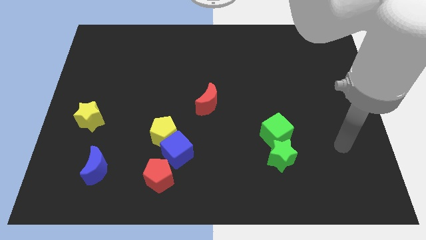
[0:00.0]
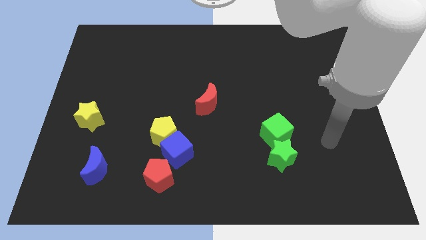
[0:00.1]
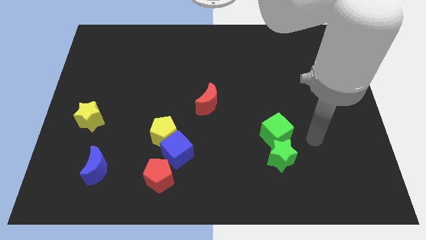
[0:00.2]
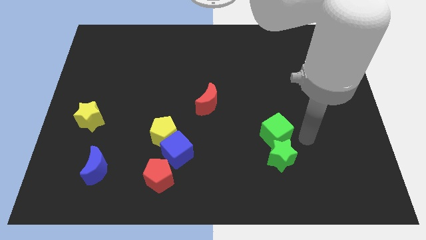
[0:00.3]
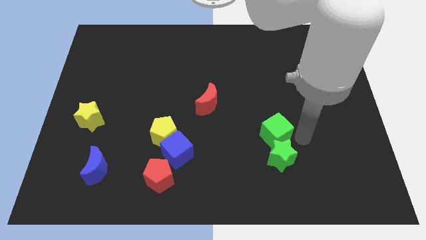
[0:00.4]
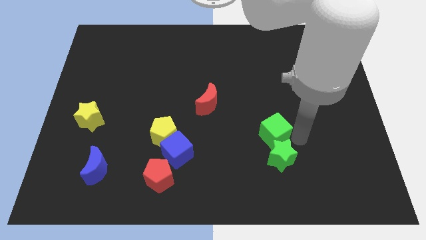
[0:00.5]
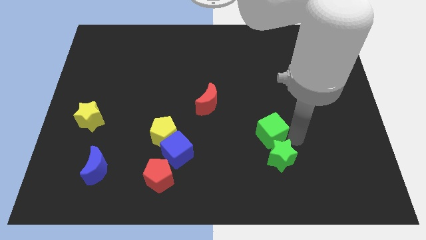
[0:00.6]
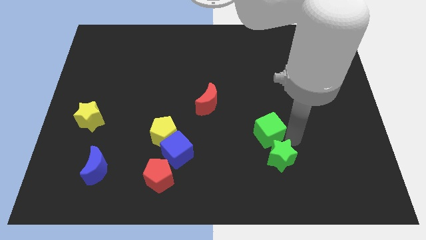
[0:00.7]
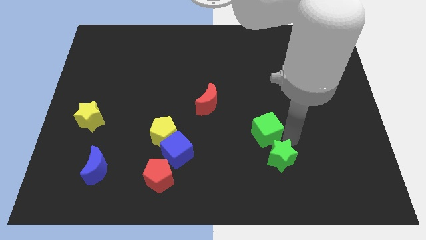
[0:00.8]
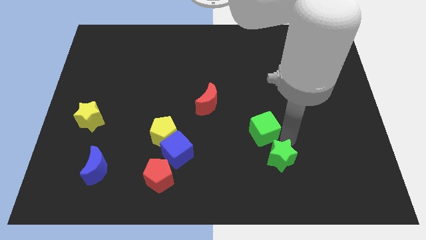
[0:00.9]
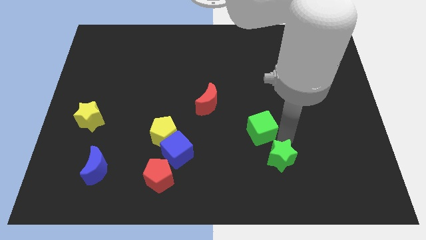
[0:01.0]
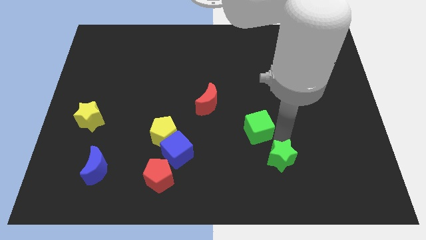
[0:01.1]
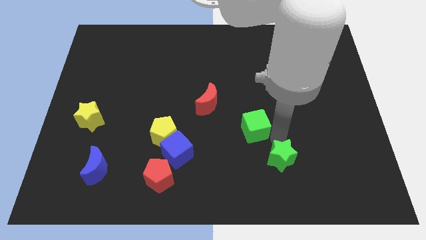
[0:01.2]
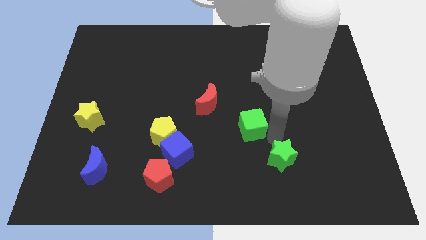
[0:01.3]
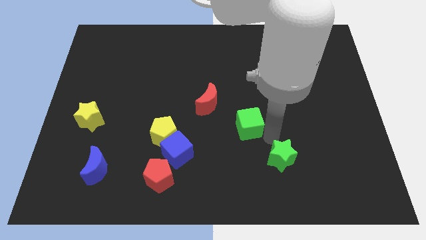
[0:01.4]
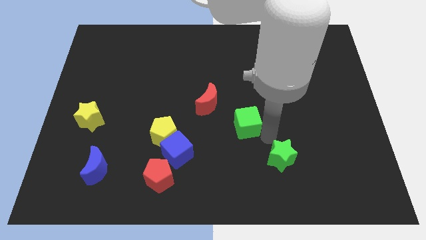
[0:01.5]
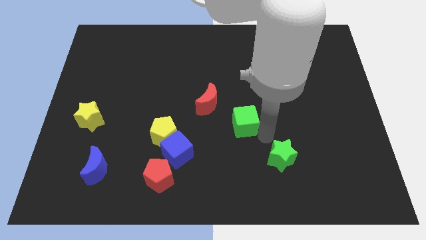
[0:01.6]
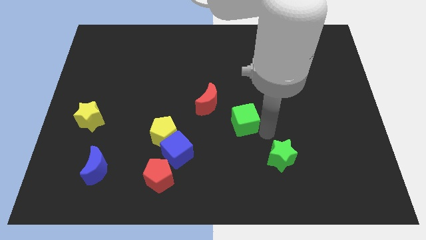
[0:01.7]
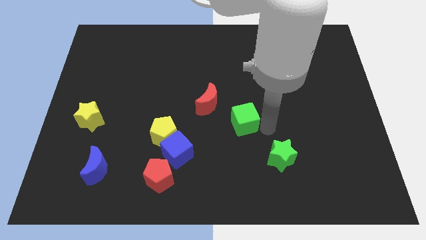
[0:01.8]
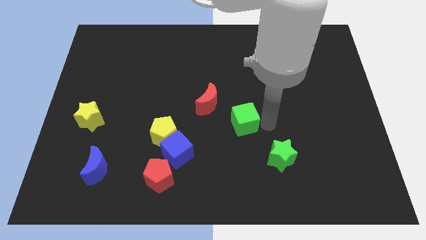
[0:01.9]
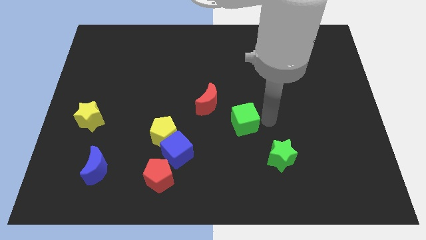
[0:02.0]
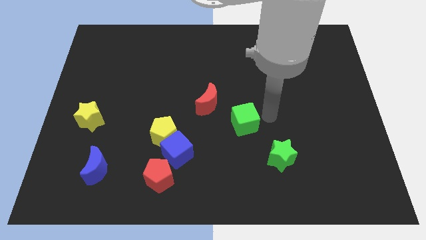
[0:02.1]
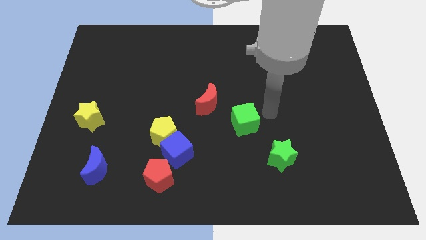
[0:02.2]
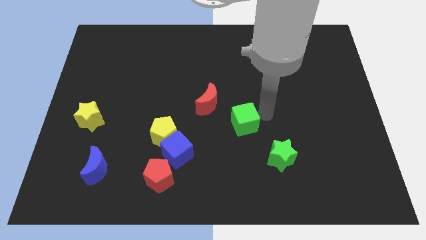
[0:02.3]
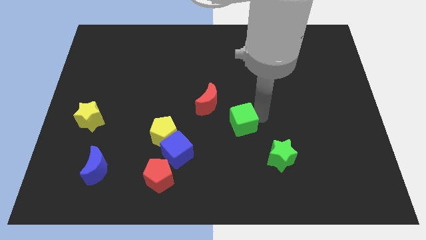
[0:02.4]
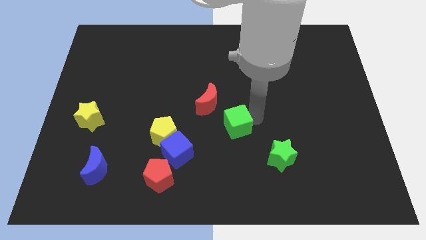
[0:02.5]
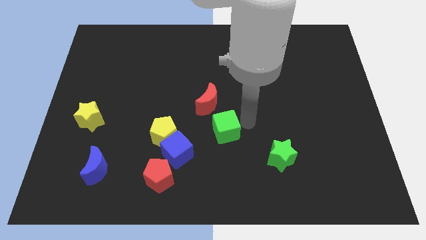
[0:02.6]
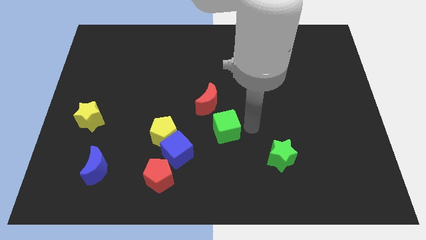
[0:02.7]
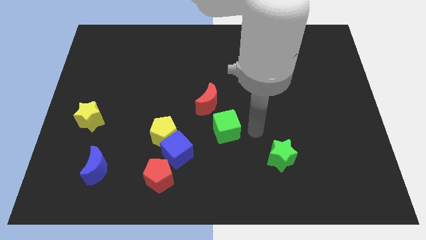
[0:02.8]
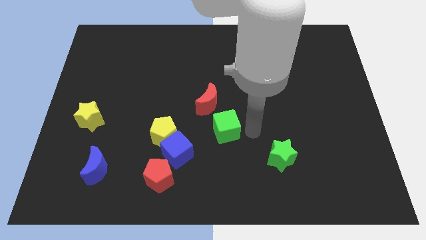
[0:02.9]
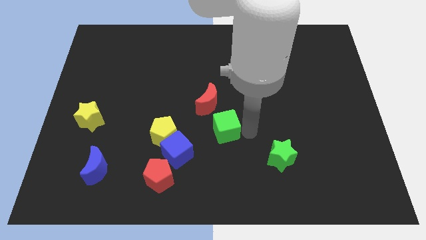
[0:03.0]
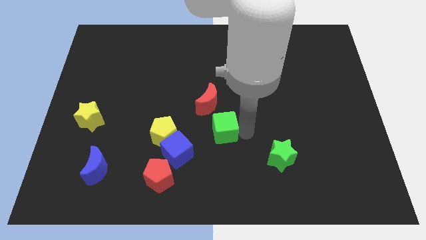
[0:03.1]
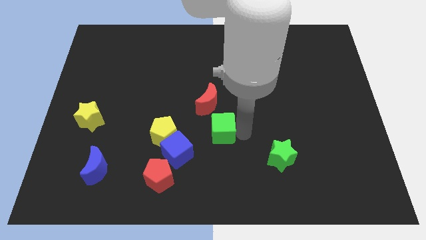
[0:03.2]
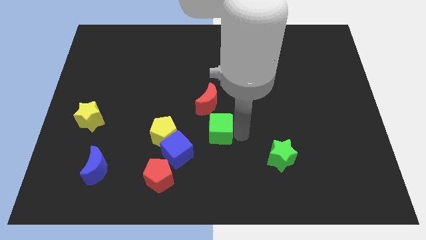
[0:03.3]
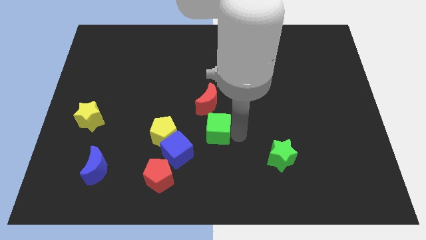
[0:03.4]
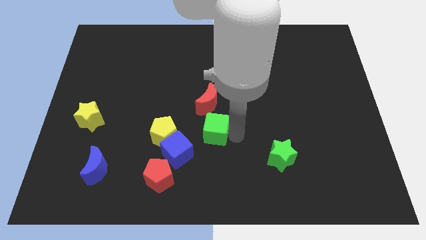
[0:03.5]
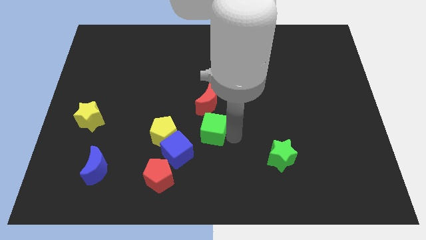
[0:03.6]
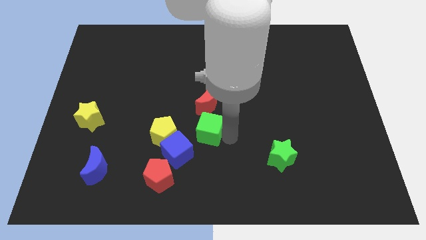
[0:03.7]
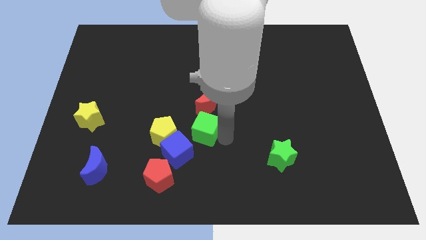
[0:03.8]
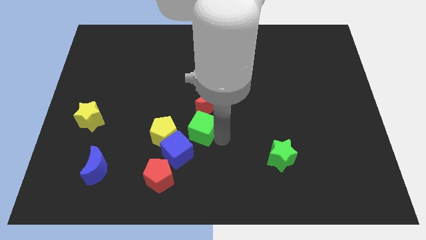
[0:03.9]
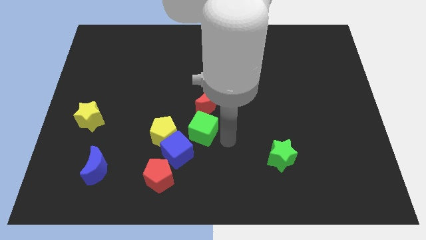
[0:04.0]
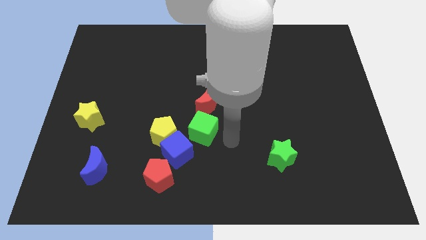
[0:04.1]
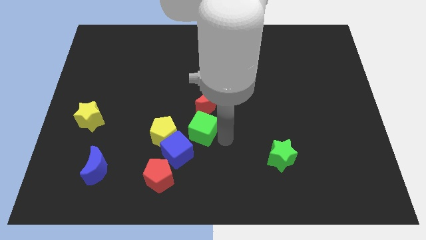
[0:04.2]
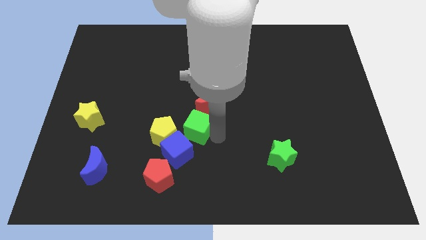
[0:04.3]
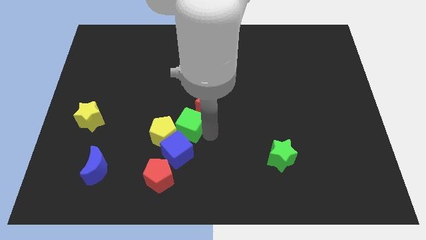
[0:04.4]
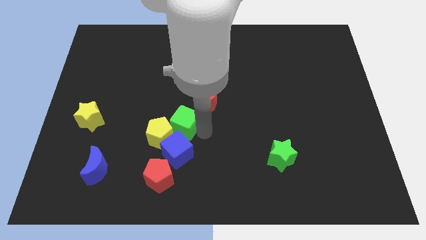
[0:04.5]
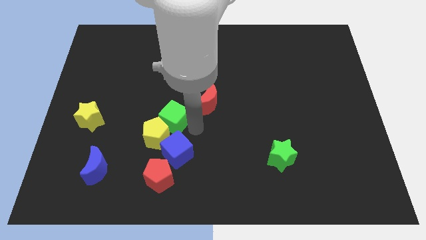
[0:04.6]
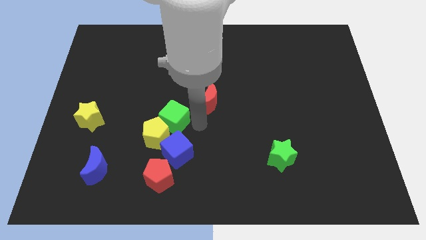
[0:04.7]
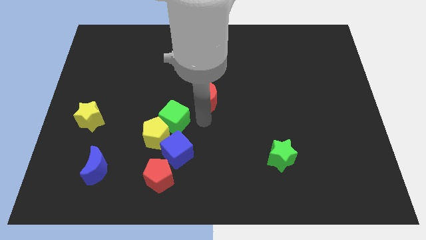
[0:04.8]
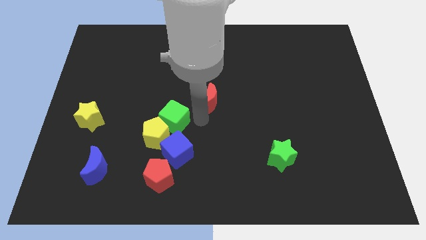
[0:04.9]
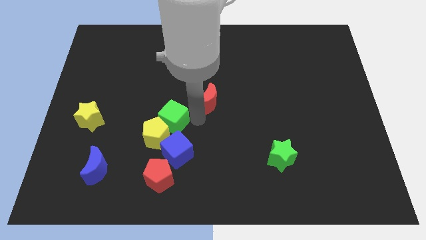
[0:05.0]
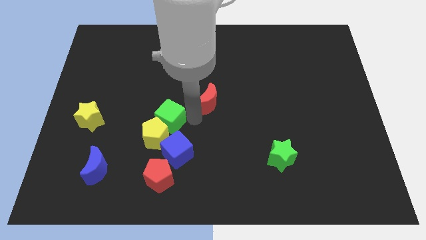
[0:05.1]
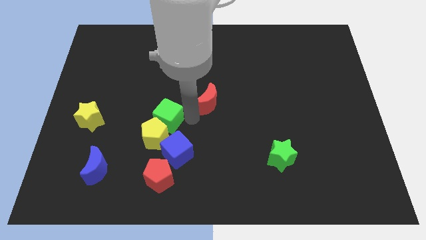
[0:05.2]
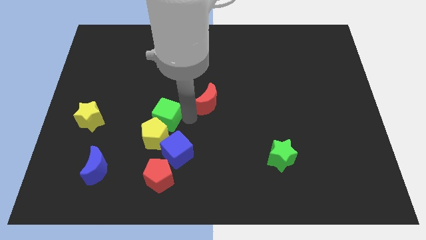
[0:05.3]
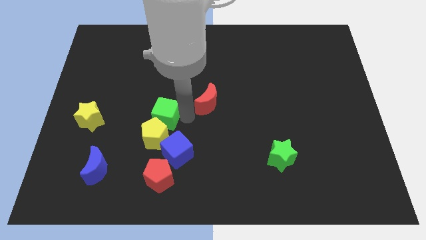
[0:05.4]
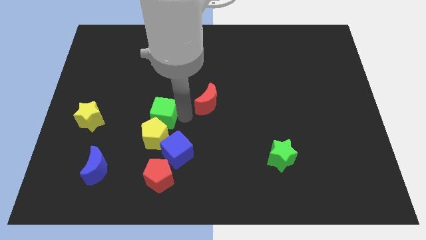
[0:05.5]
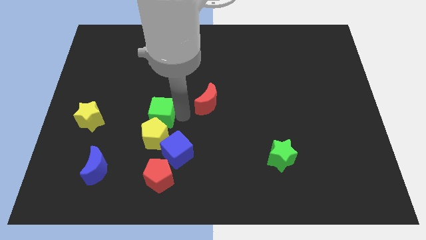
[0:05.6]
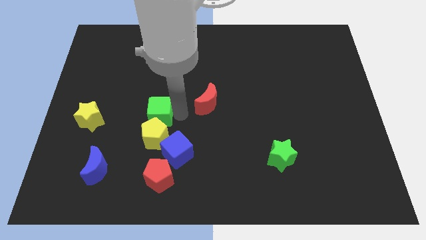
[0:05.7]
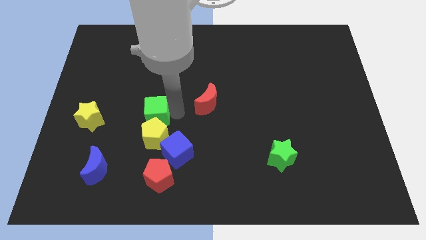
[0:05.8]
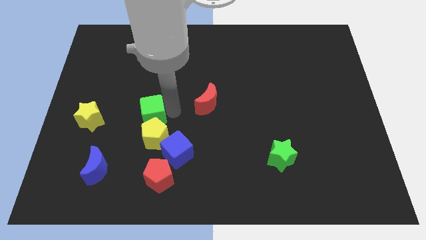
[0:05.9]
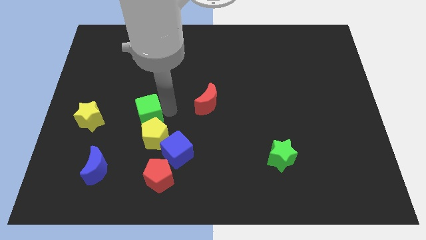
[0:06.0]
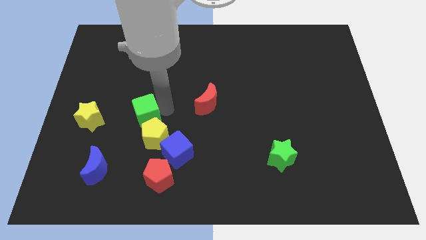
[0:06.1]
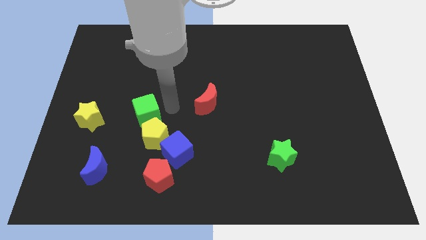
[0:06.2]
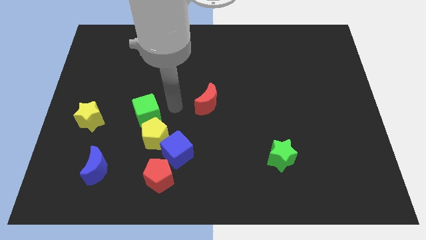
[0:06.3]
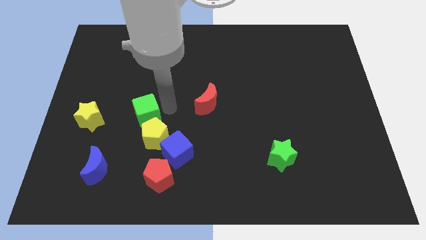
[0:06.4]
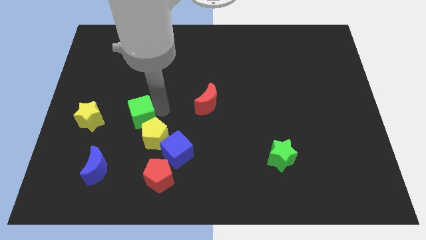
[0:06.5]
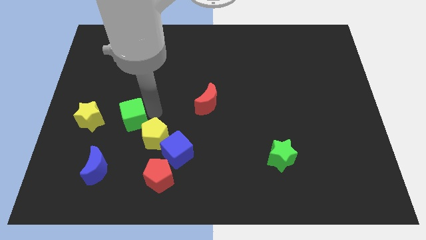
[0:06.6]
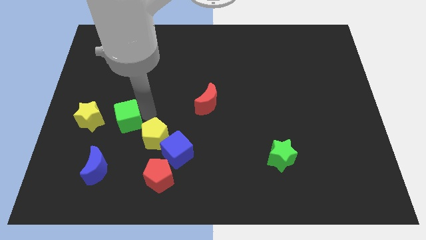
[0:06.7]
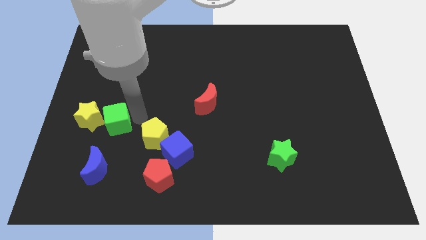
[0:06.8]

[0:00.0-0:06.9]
move the green cube to the yellow star

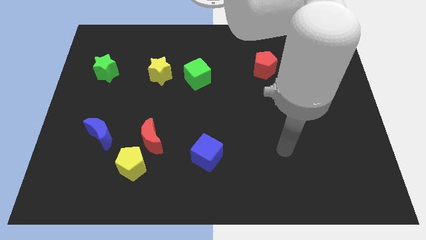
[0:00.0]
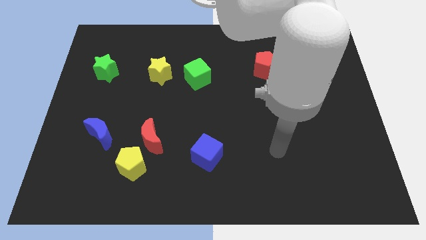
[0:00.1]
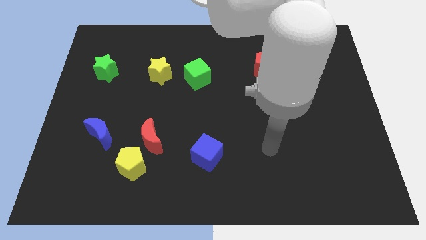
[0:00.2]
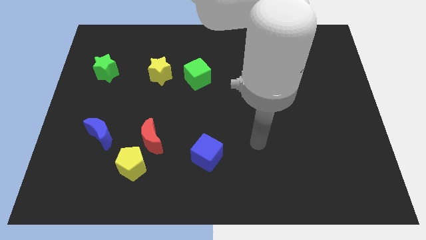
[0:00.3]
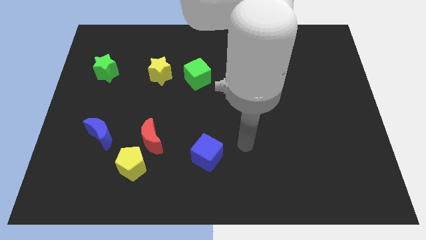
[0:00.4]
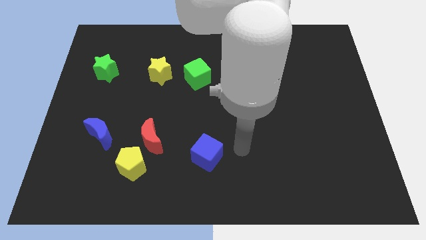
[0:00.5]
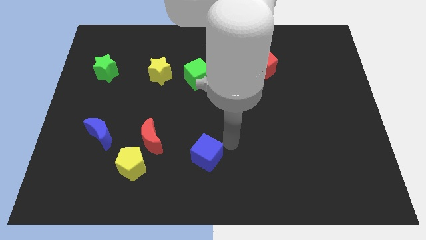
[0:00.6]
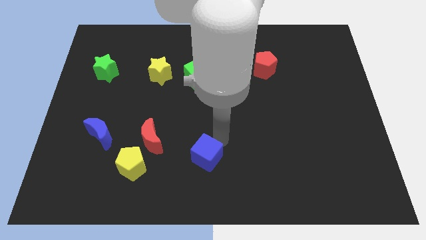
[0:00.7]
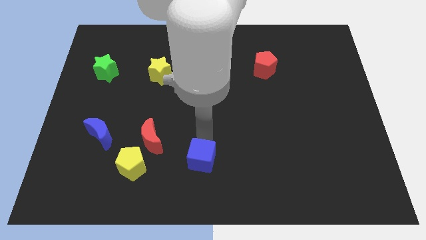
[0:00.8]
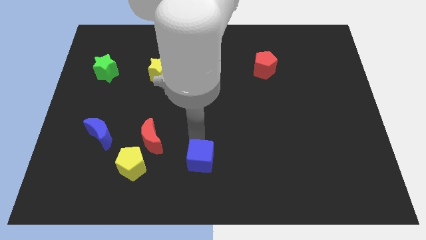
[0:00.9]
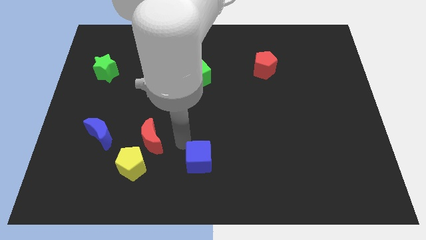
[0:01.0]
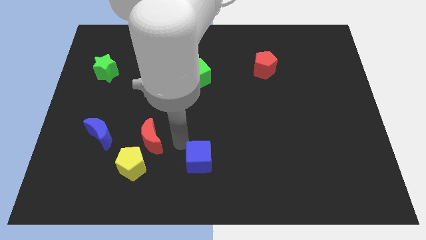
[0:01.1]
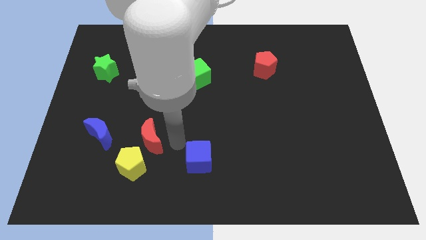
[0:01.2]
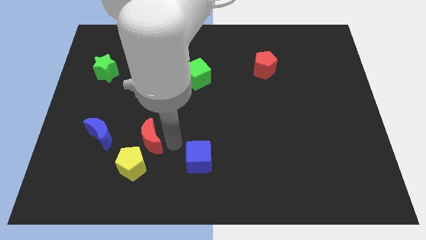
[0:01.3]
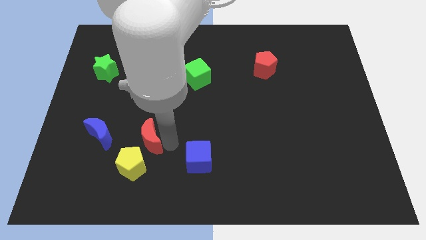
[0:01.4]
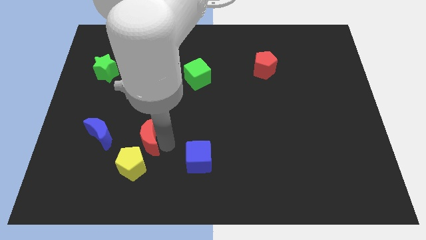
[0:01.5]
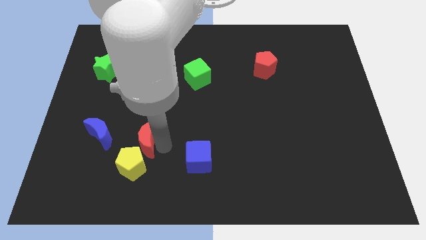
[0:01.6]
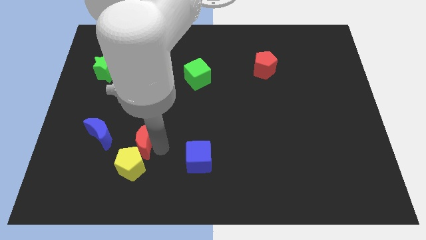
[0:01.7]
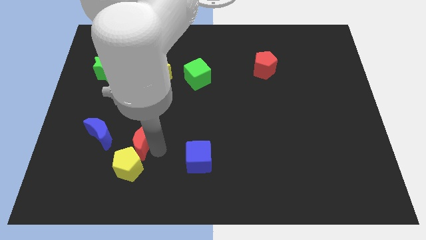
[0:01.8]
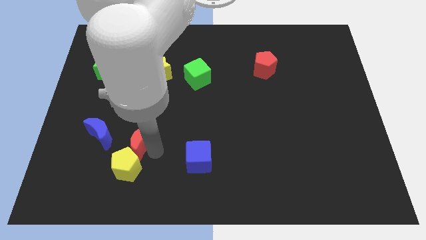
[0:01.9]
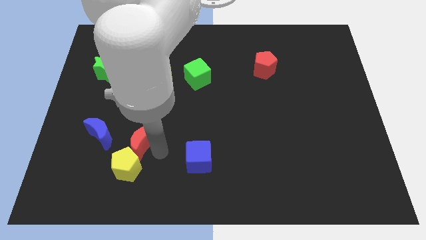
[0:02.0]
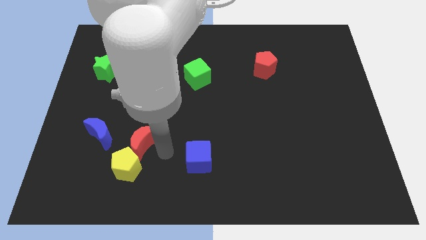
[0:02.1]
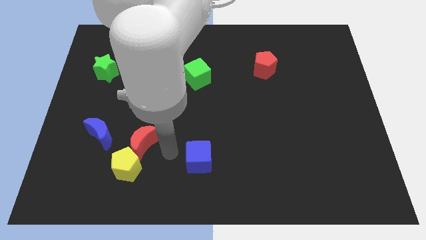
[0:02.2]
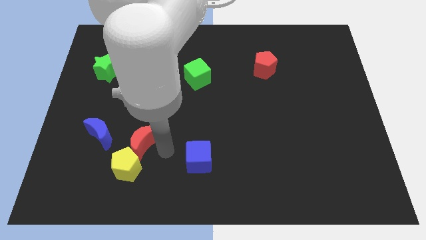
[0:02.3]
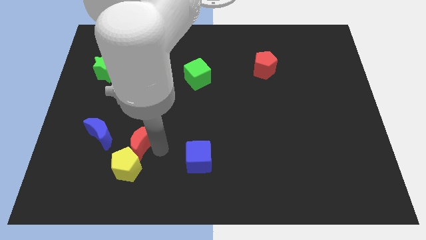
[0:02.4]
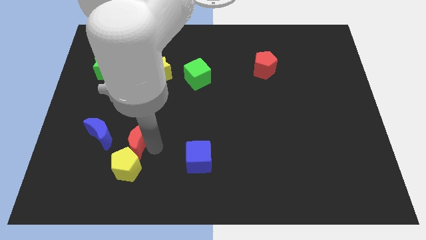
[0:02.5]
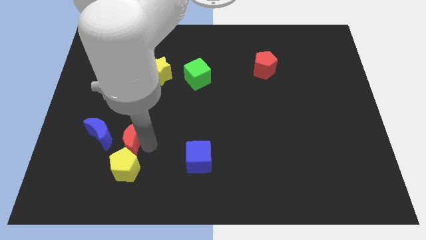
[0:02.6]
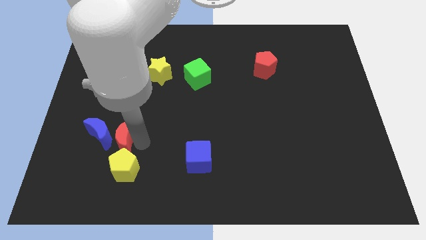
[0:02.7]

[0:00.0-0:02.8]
move the red moon towards the blue moon
